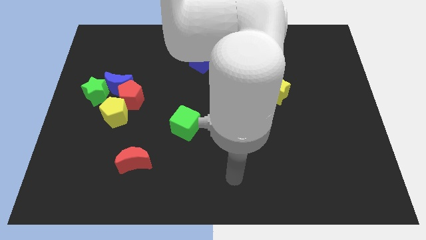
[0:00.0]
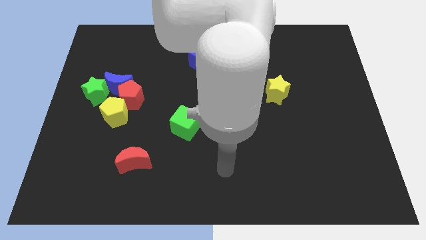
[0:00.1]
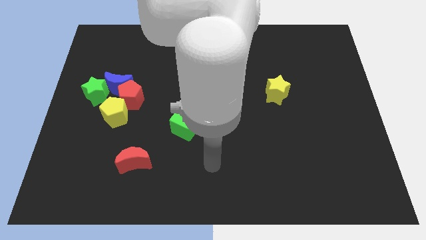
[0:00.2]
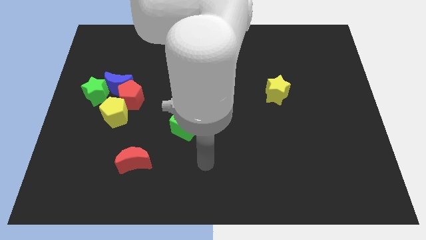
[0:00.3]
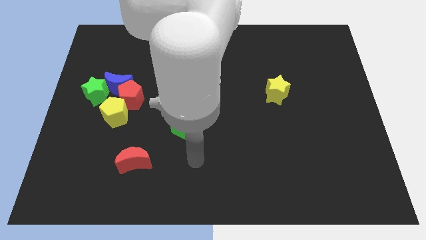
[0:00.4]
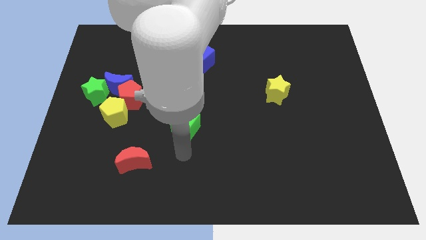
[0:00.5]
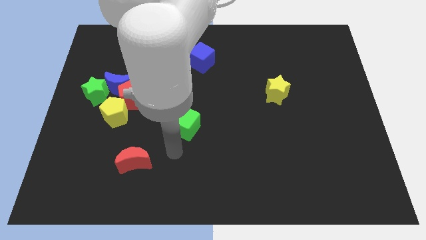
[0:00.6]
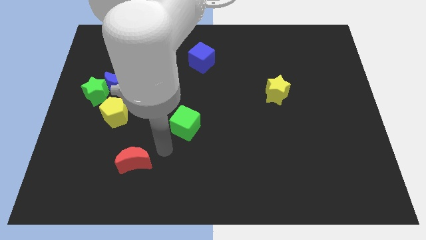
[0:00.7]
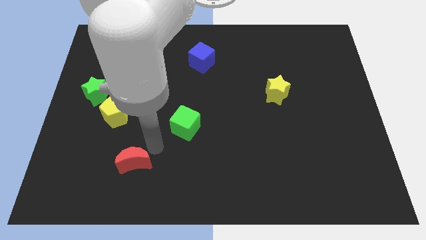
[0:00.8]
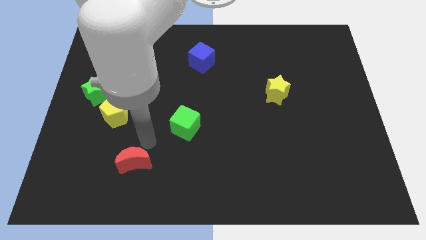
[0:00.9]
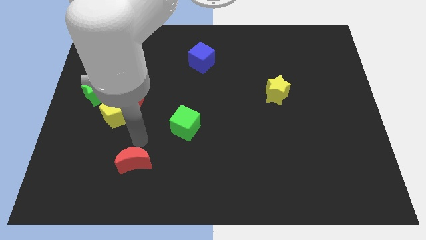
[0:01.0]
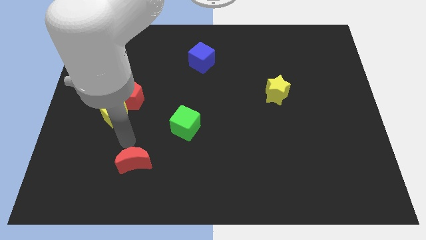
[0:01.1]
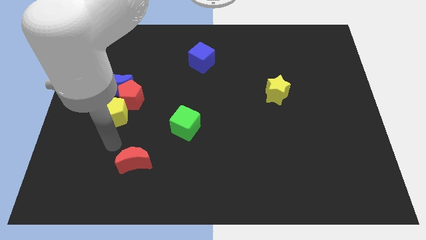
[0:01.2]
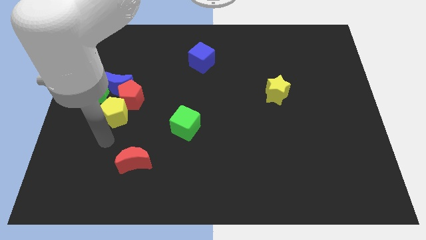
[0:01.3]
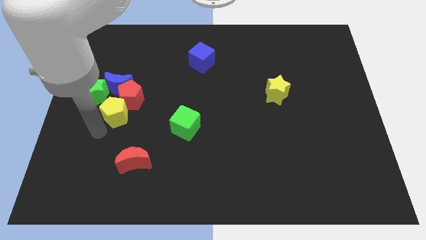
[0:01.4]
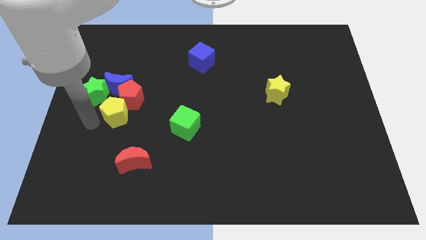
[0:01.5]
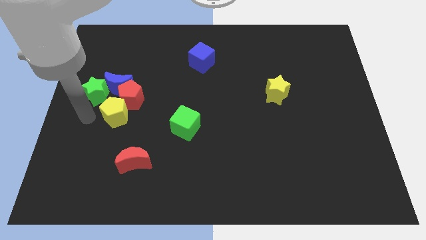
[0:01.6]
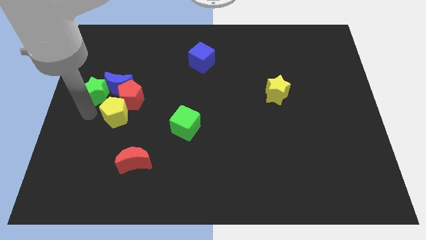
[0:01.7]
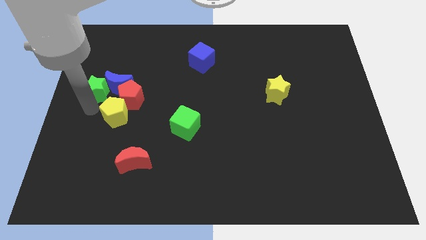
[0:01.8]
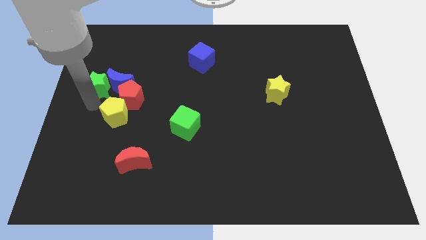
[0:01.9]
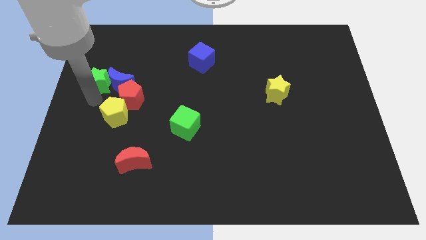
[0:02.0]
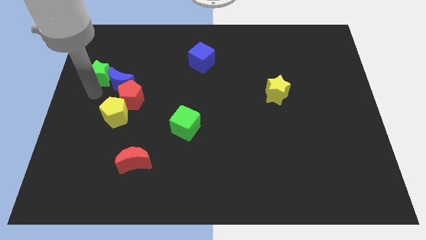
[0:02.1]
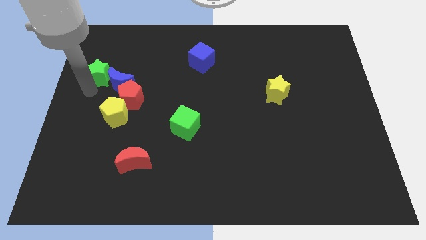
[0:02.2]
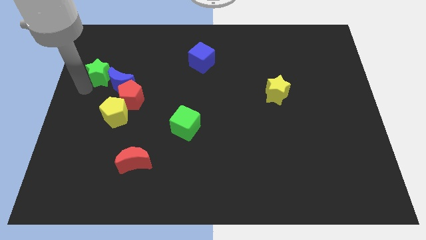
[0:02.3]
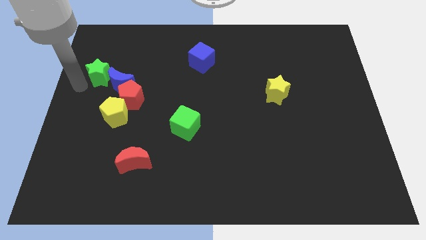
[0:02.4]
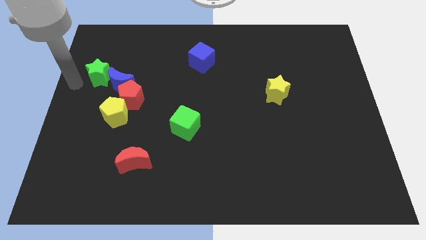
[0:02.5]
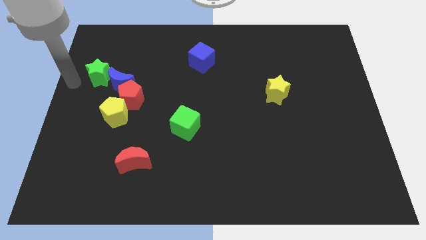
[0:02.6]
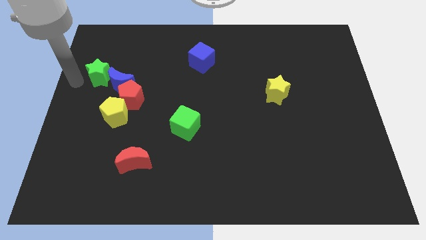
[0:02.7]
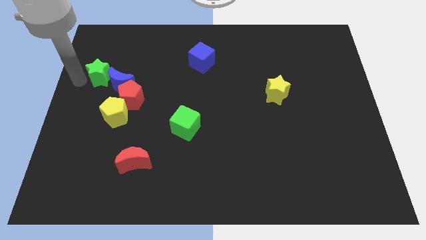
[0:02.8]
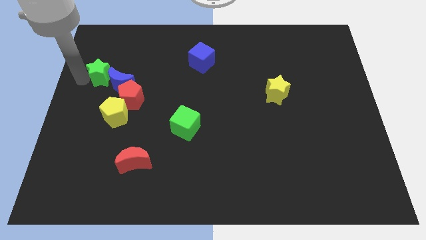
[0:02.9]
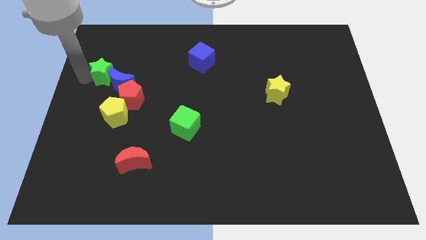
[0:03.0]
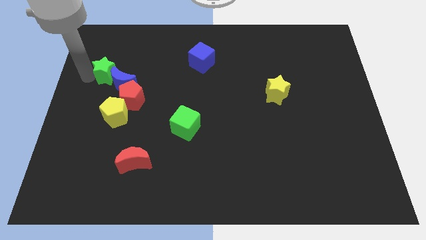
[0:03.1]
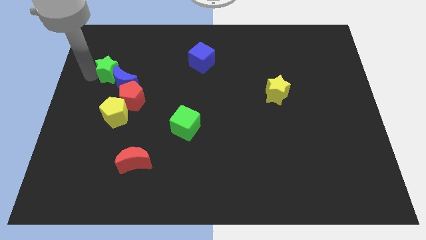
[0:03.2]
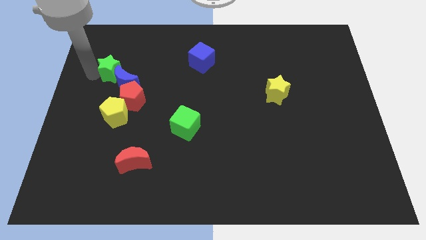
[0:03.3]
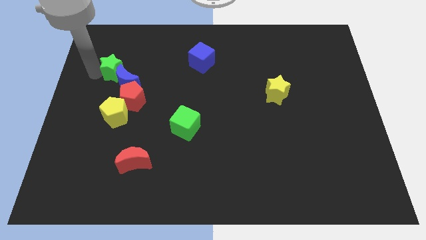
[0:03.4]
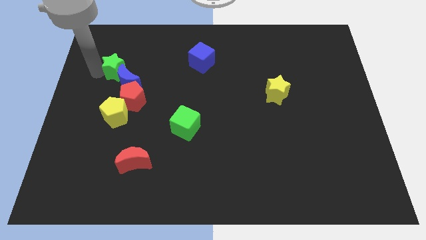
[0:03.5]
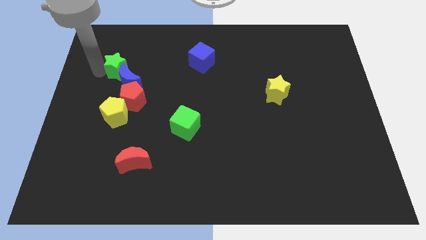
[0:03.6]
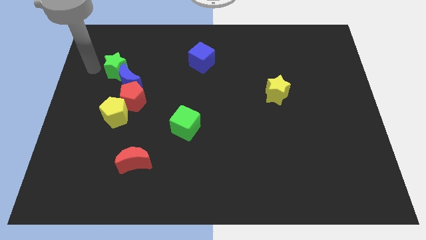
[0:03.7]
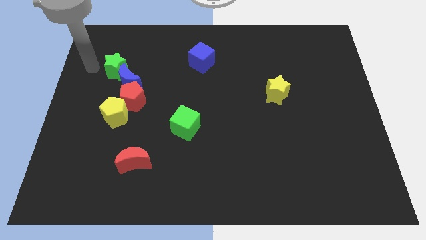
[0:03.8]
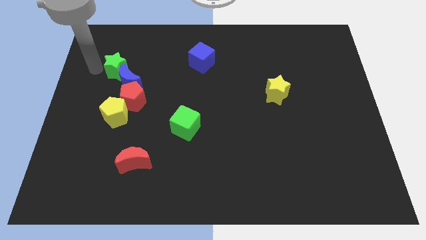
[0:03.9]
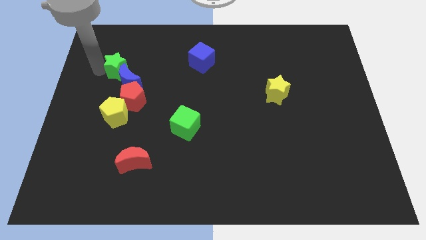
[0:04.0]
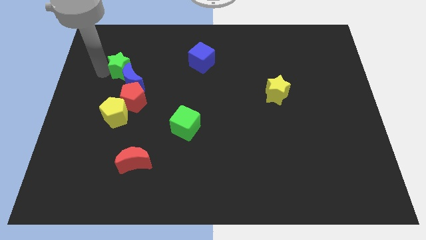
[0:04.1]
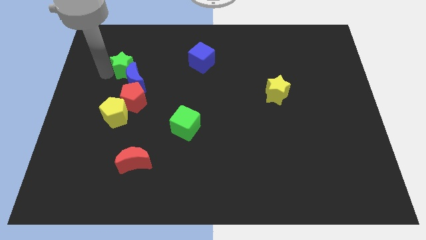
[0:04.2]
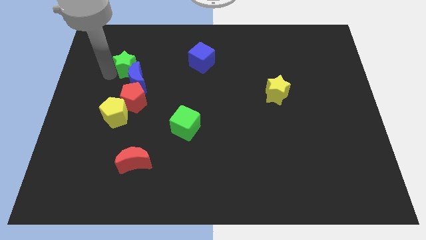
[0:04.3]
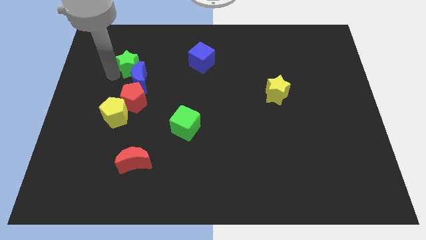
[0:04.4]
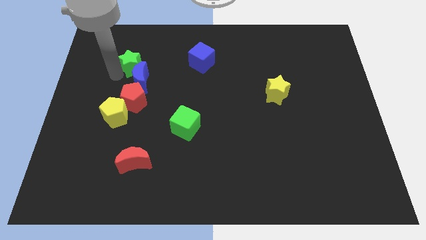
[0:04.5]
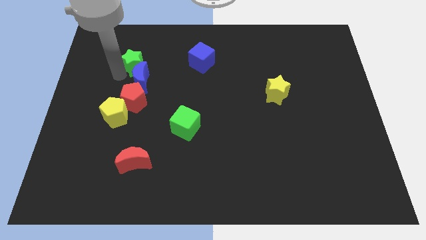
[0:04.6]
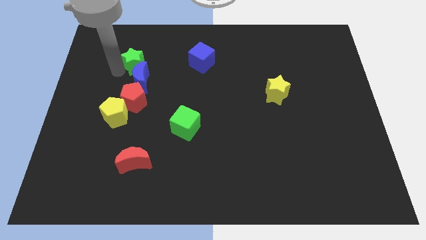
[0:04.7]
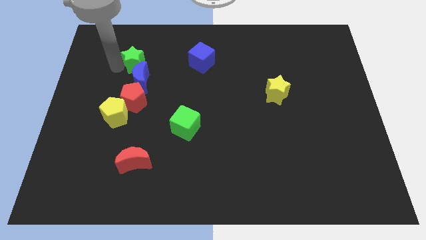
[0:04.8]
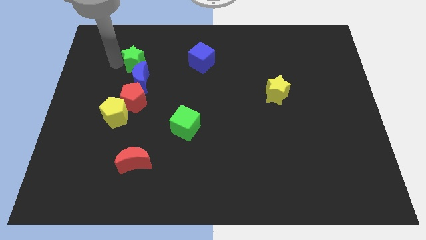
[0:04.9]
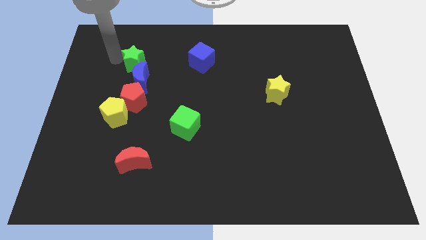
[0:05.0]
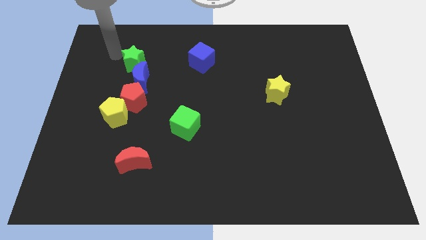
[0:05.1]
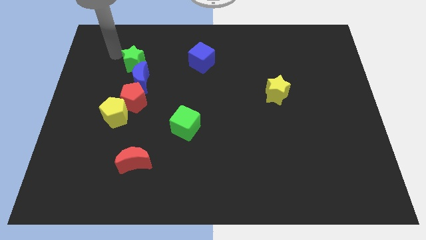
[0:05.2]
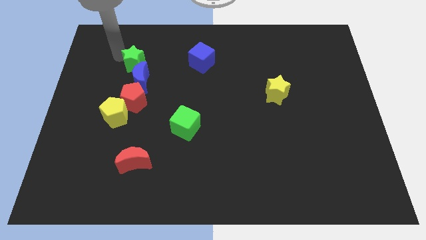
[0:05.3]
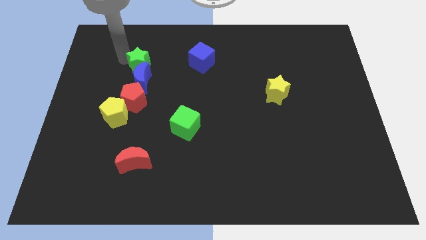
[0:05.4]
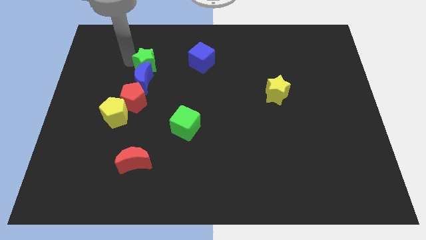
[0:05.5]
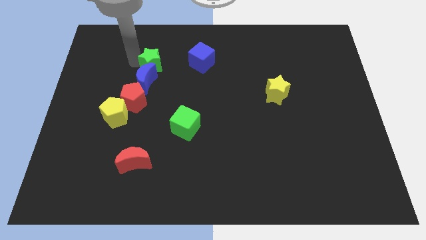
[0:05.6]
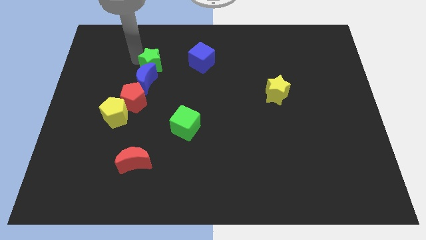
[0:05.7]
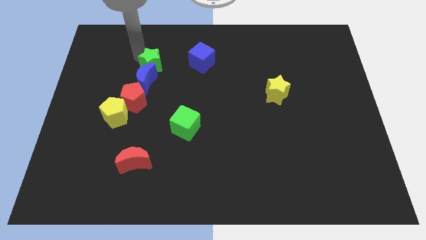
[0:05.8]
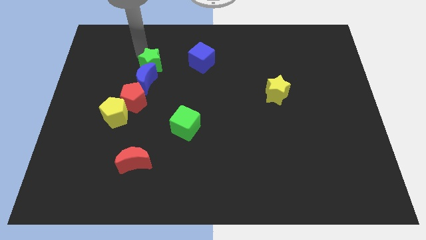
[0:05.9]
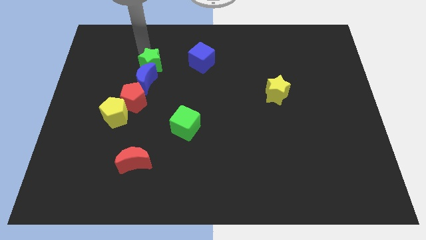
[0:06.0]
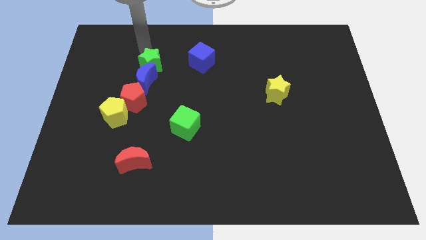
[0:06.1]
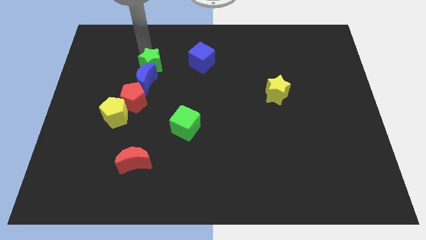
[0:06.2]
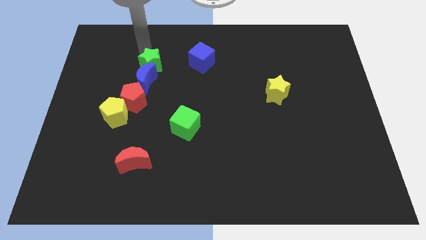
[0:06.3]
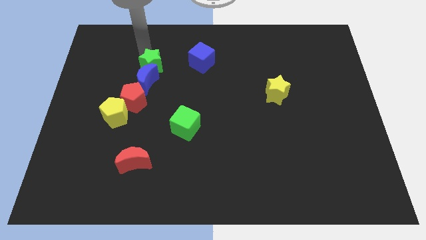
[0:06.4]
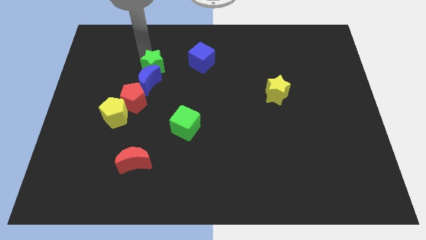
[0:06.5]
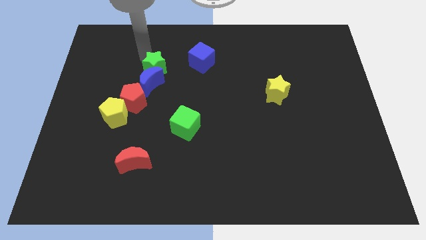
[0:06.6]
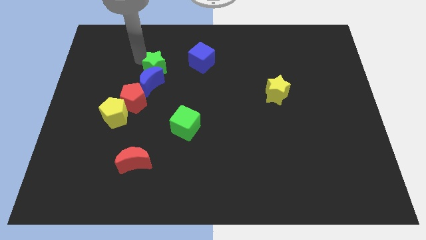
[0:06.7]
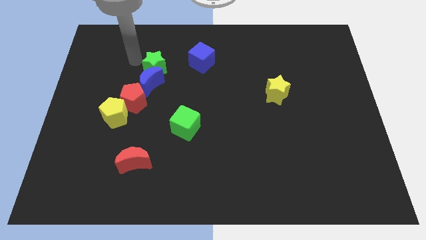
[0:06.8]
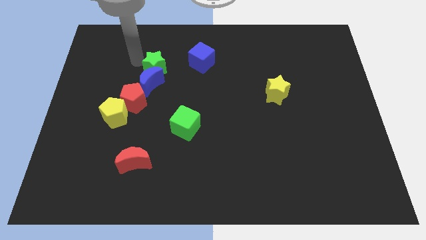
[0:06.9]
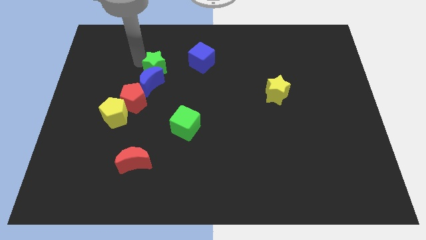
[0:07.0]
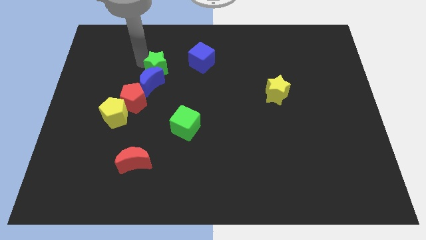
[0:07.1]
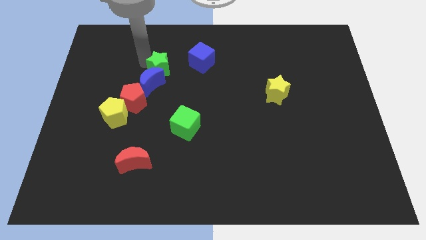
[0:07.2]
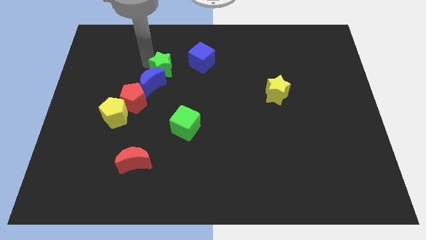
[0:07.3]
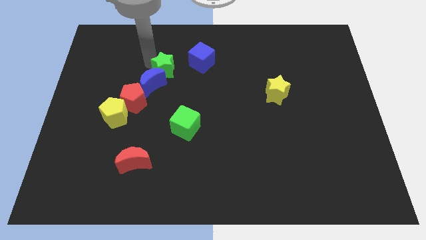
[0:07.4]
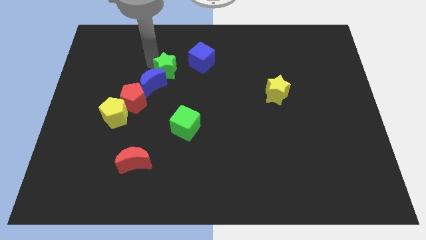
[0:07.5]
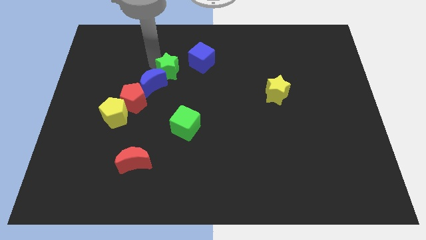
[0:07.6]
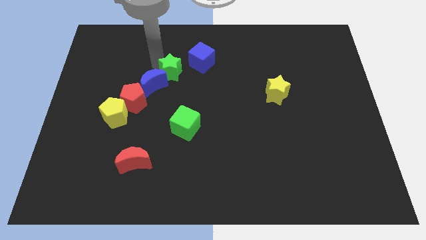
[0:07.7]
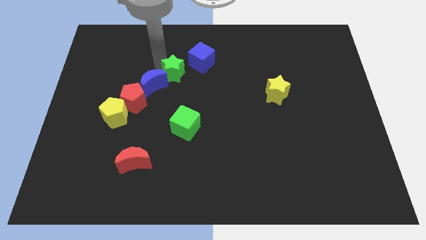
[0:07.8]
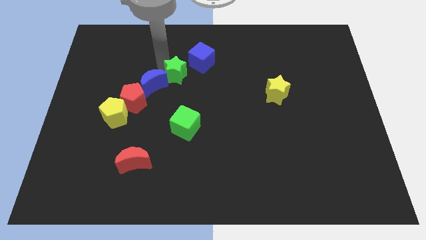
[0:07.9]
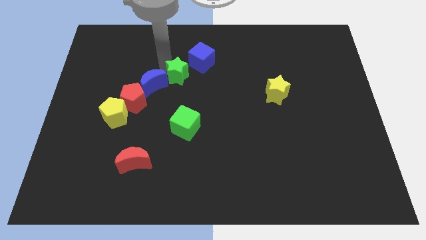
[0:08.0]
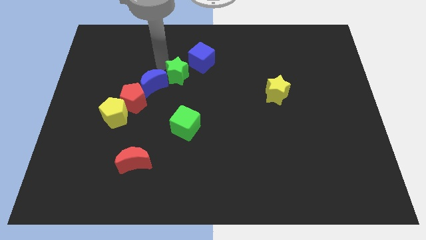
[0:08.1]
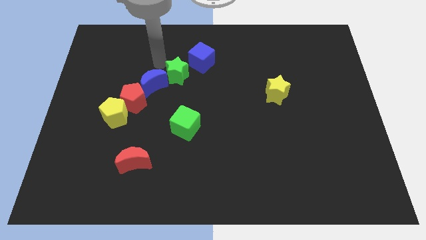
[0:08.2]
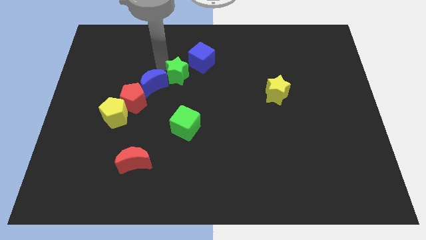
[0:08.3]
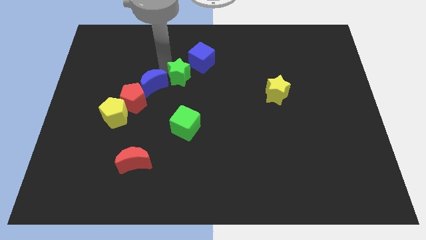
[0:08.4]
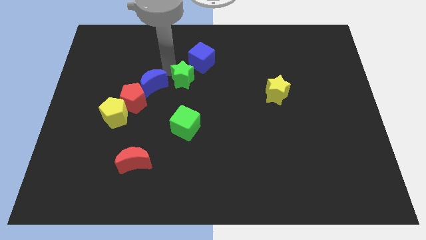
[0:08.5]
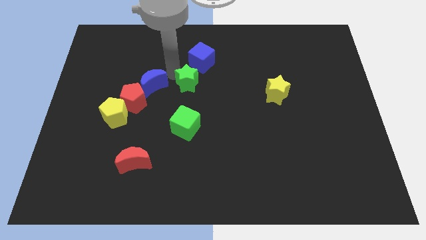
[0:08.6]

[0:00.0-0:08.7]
slide the green star to the right
